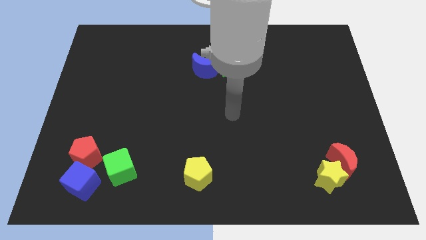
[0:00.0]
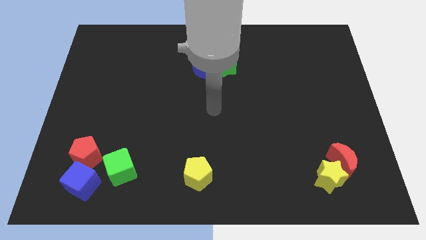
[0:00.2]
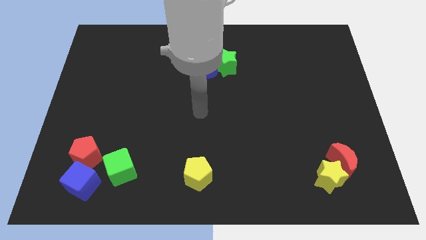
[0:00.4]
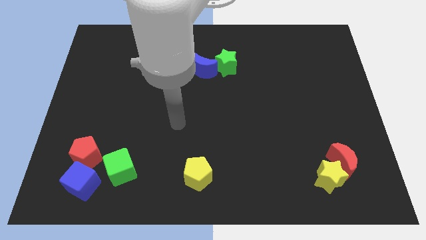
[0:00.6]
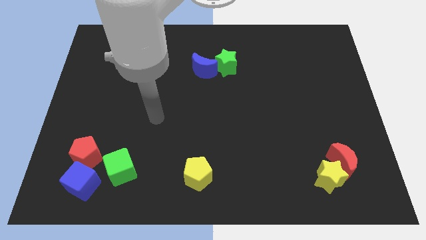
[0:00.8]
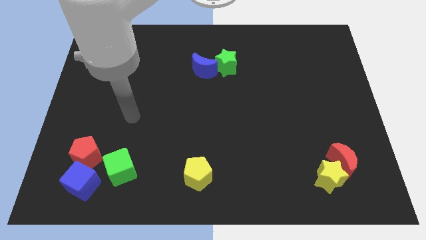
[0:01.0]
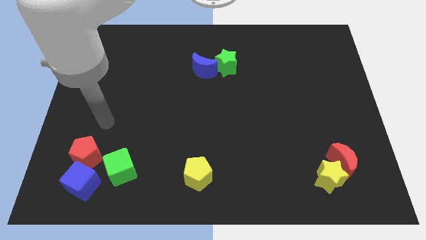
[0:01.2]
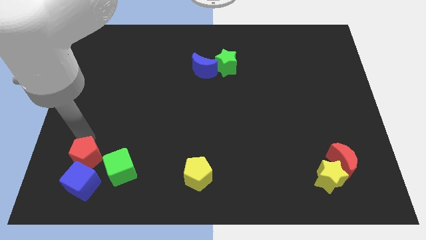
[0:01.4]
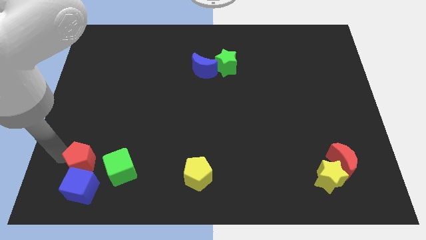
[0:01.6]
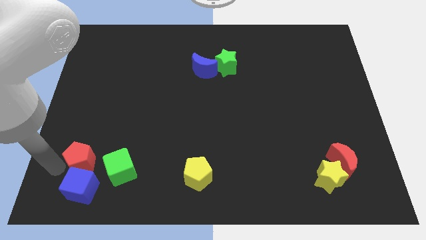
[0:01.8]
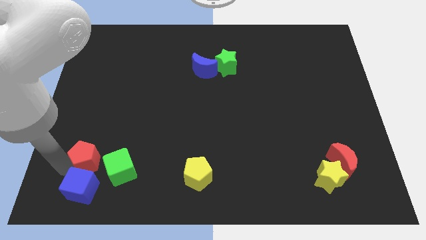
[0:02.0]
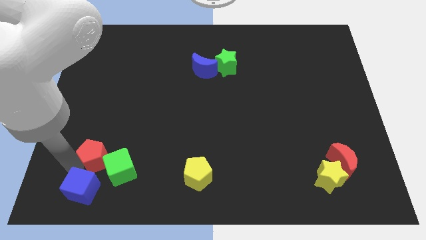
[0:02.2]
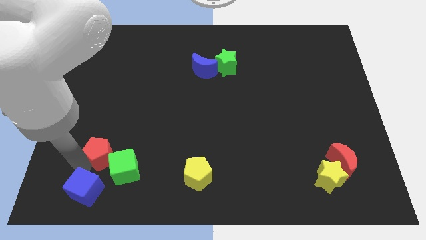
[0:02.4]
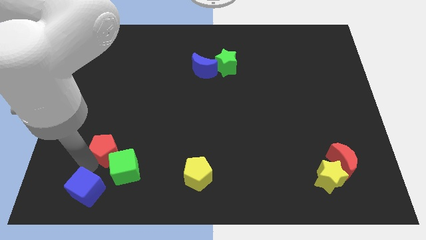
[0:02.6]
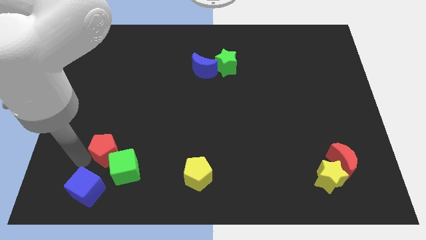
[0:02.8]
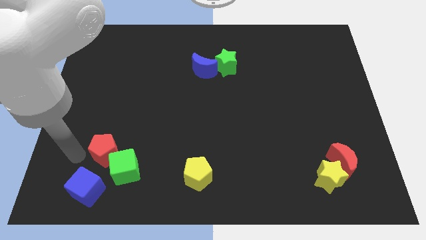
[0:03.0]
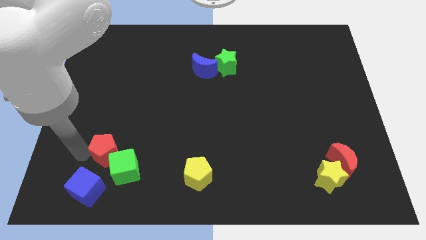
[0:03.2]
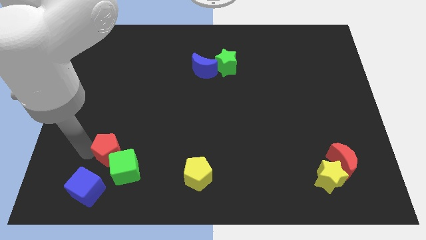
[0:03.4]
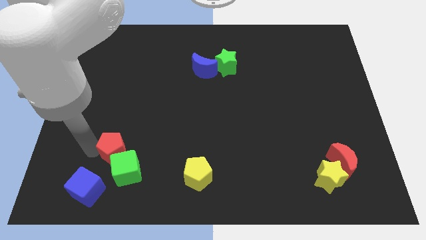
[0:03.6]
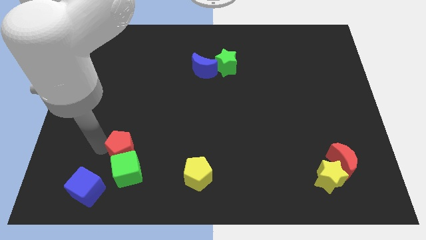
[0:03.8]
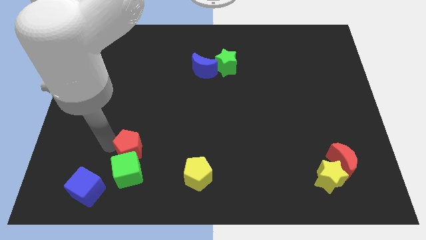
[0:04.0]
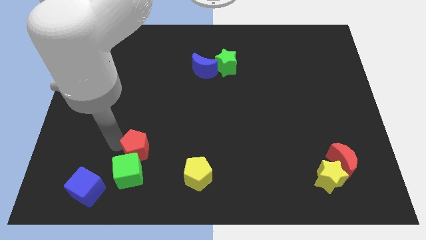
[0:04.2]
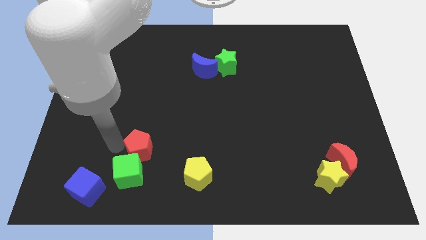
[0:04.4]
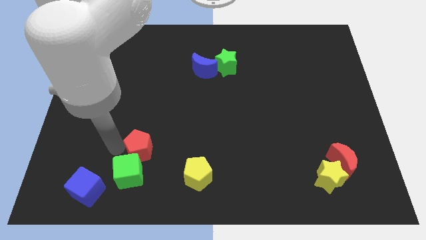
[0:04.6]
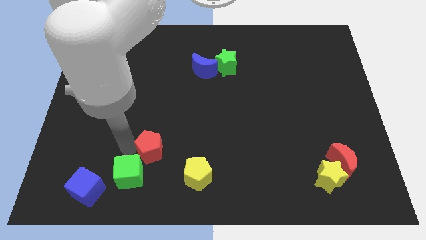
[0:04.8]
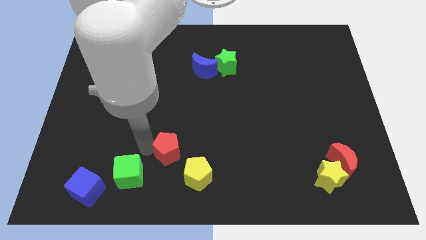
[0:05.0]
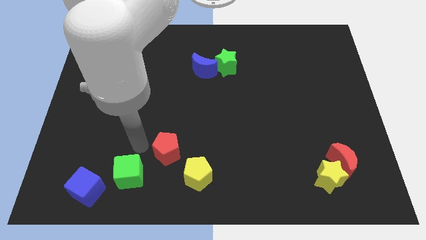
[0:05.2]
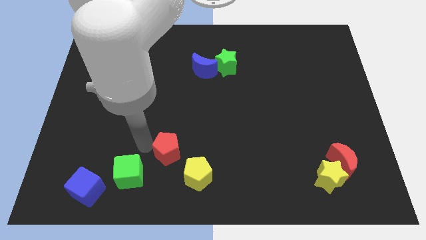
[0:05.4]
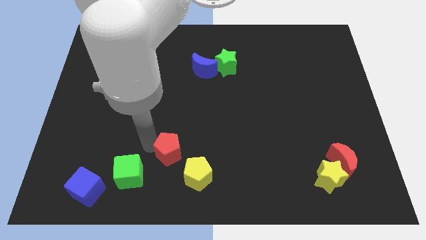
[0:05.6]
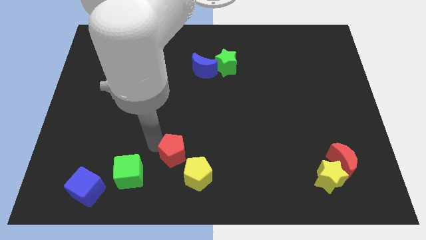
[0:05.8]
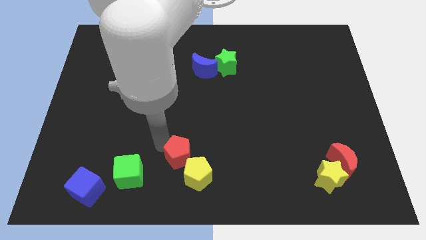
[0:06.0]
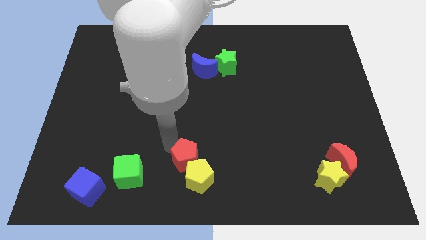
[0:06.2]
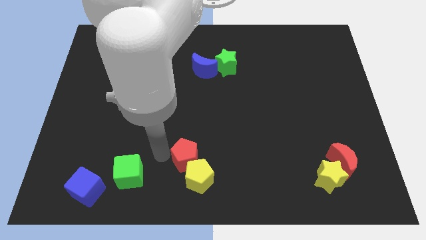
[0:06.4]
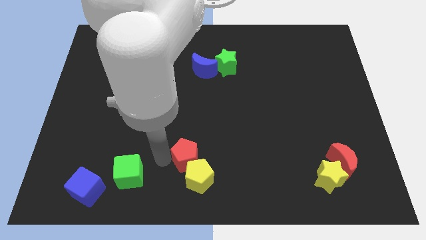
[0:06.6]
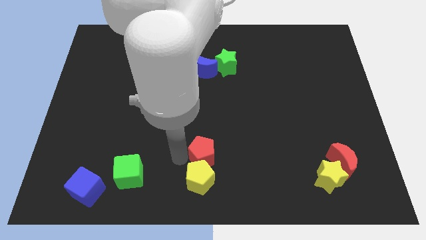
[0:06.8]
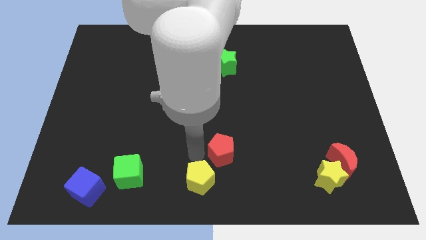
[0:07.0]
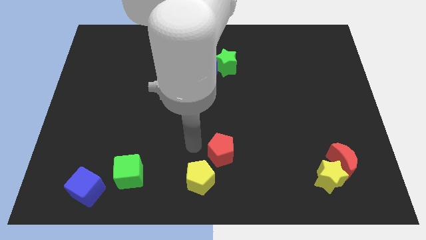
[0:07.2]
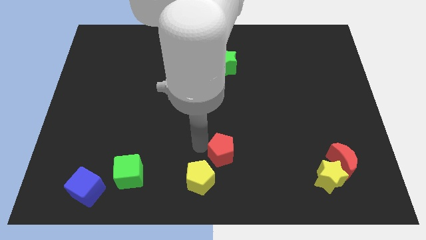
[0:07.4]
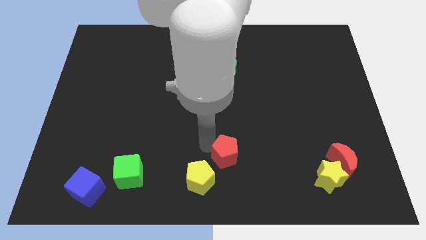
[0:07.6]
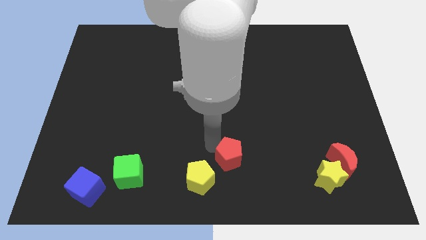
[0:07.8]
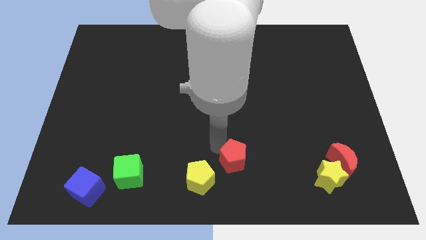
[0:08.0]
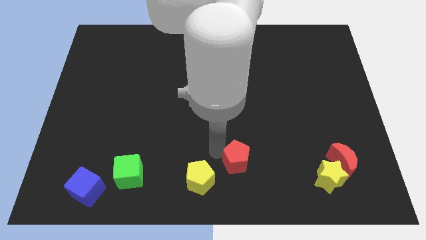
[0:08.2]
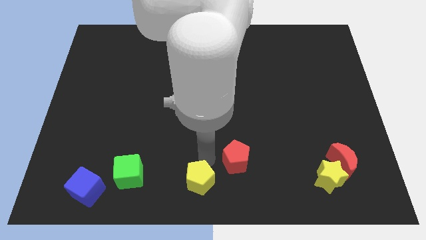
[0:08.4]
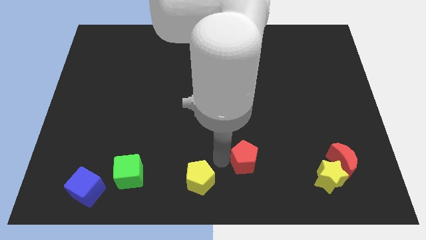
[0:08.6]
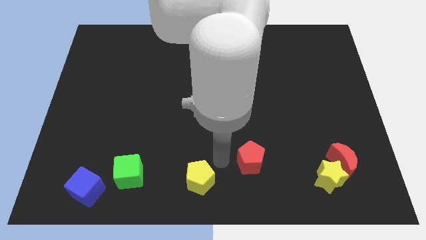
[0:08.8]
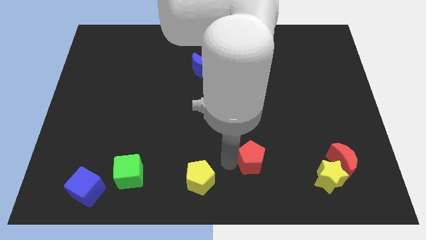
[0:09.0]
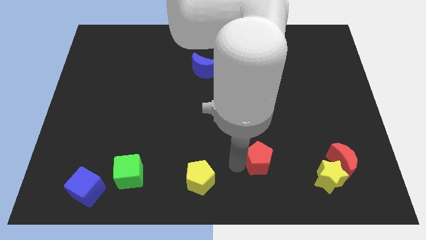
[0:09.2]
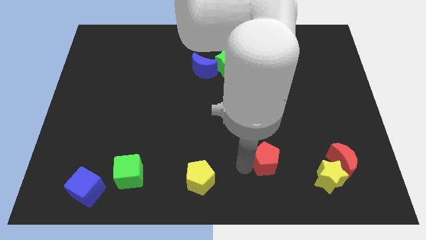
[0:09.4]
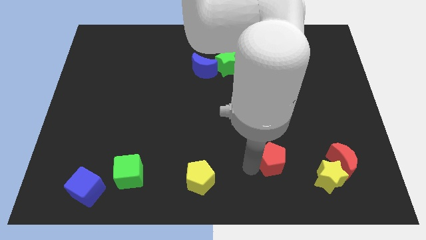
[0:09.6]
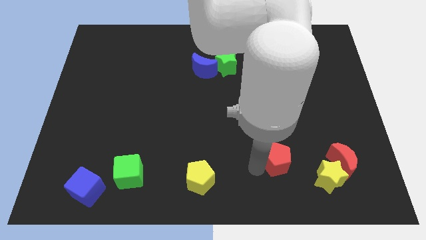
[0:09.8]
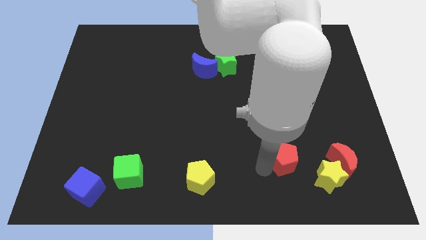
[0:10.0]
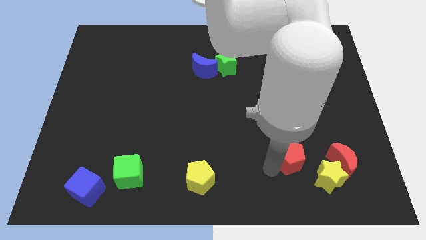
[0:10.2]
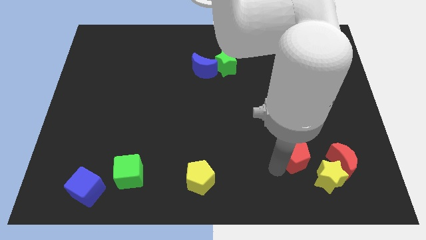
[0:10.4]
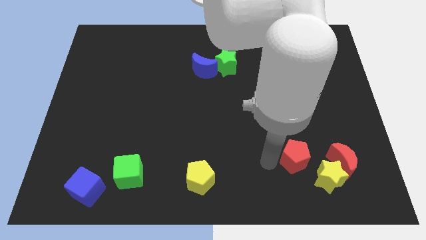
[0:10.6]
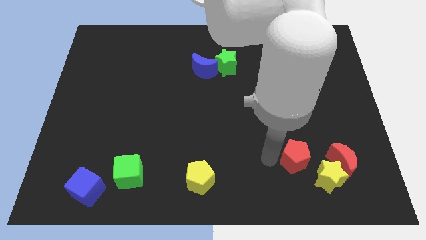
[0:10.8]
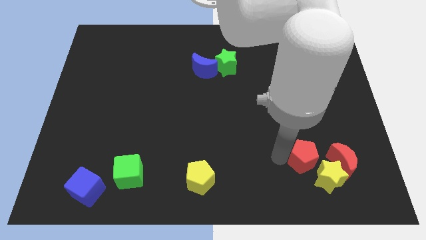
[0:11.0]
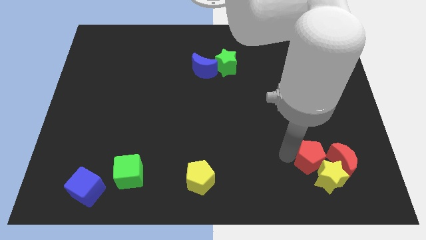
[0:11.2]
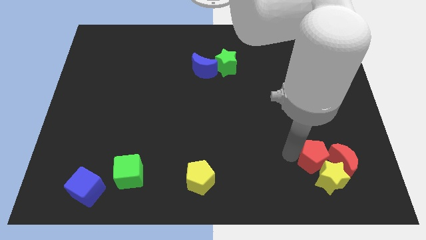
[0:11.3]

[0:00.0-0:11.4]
slide the red pentagon to the red moon

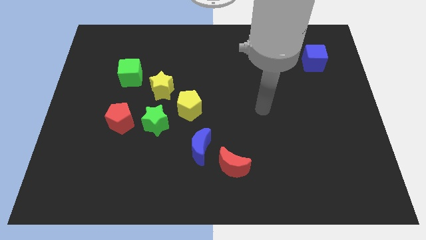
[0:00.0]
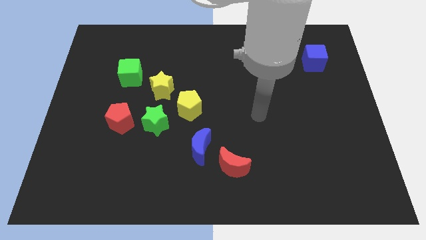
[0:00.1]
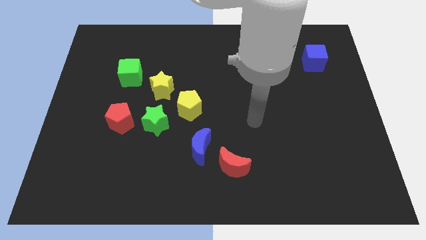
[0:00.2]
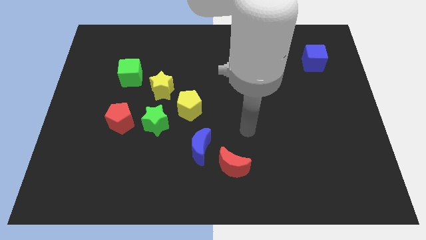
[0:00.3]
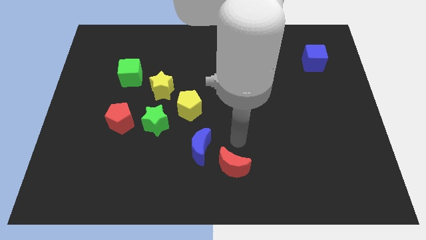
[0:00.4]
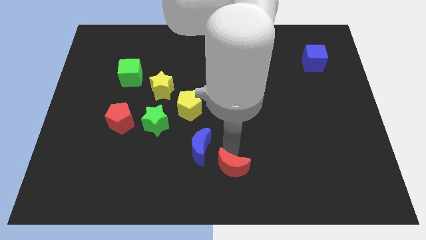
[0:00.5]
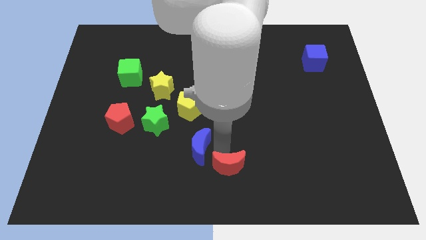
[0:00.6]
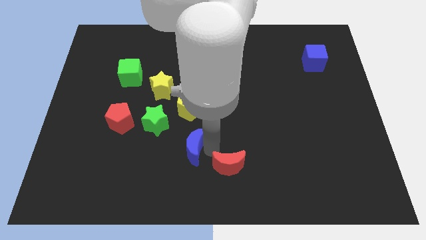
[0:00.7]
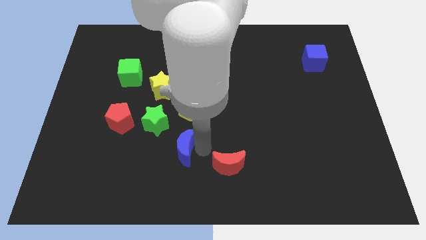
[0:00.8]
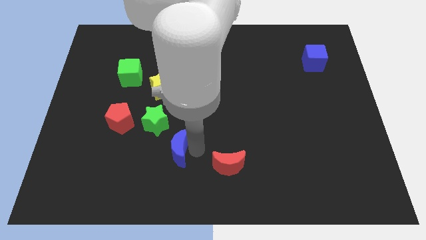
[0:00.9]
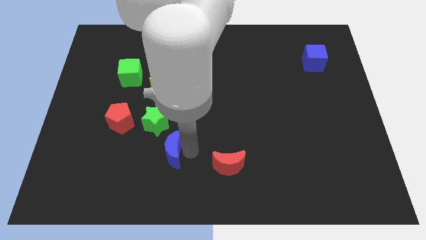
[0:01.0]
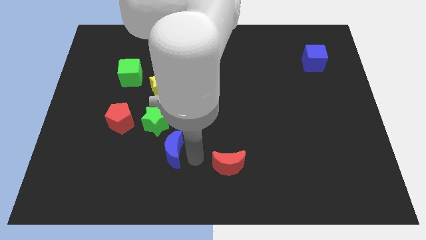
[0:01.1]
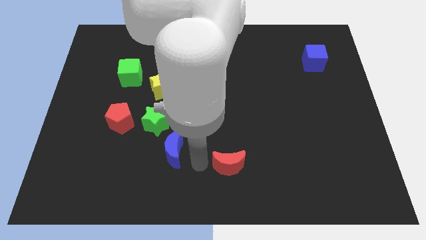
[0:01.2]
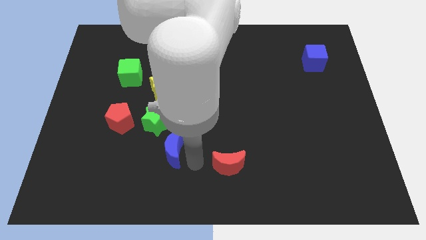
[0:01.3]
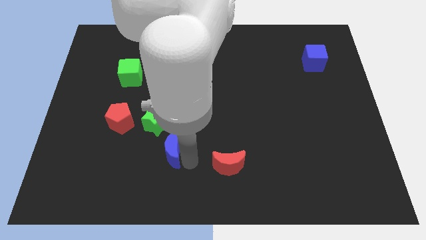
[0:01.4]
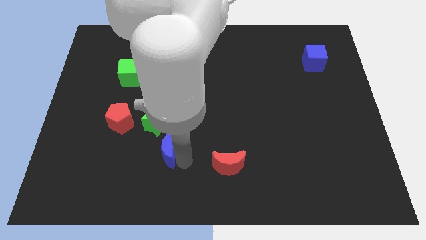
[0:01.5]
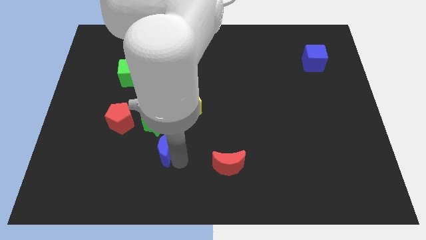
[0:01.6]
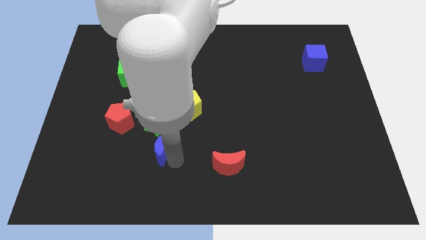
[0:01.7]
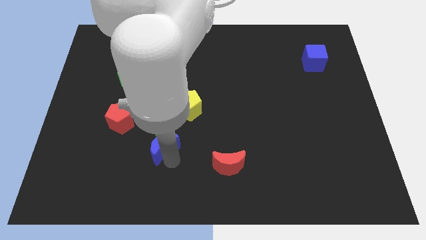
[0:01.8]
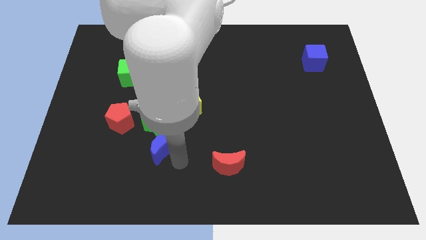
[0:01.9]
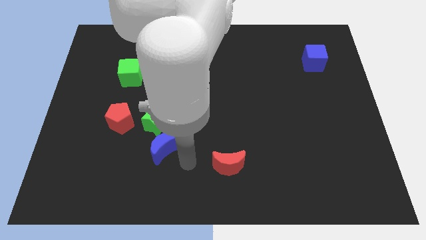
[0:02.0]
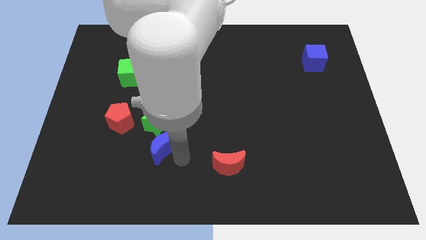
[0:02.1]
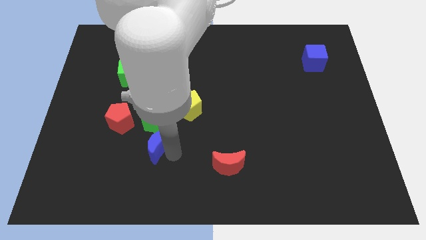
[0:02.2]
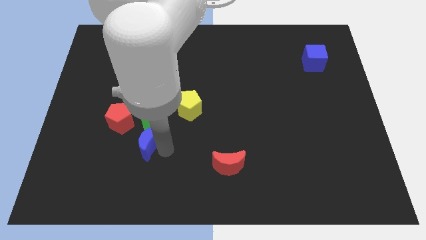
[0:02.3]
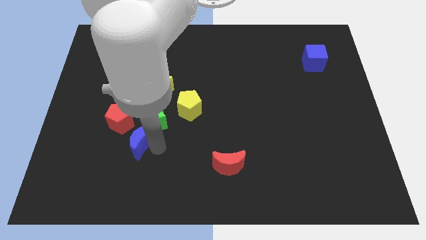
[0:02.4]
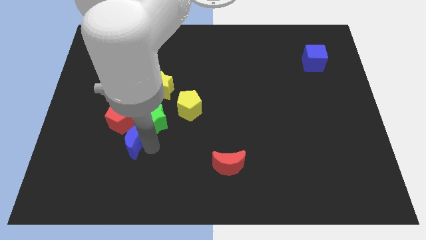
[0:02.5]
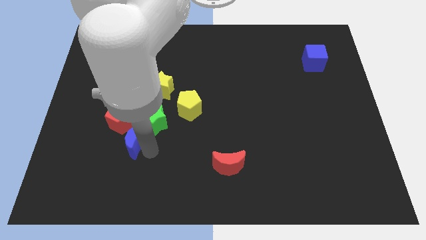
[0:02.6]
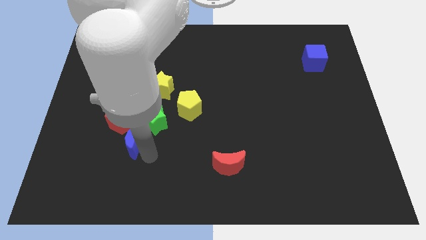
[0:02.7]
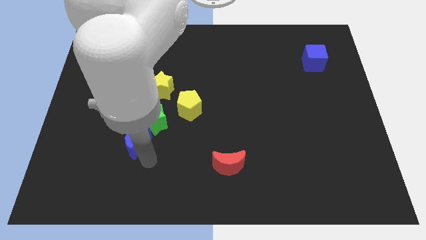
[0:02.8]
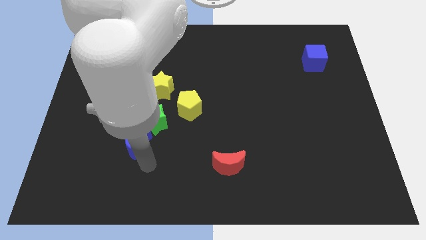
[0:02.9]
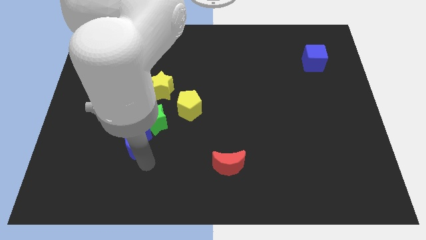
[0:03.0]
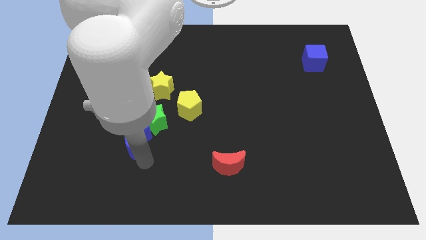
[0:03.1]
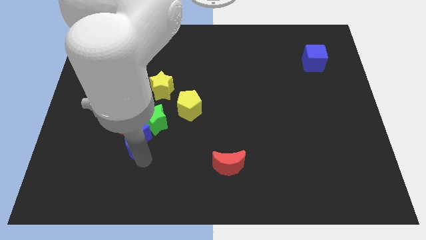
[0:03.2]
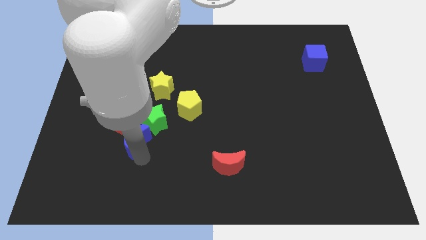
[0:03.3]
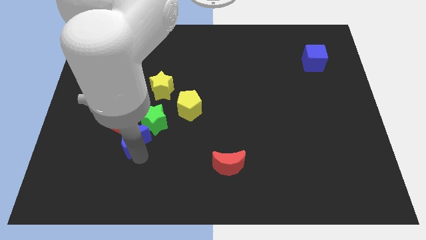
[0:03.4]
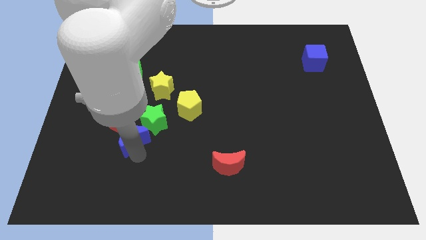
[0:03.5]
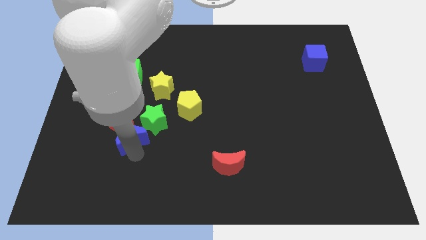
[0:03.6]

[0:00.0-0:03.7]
slide the blue moon to the red pentagon
